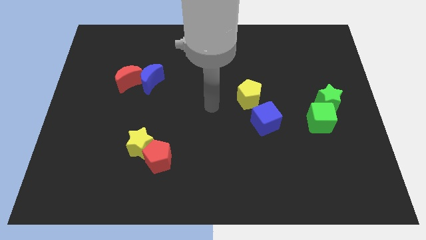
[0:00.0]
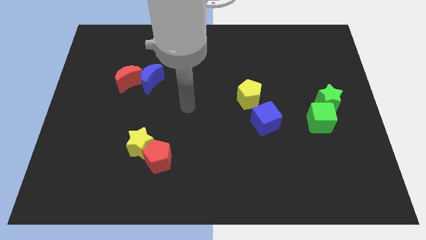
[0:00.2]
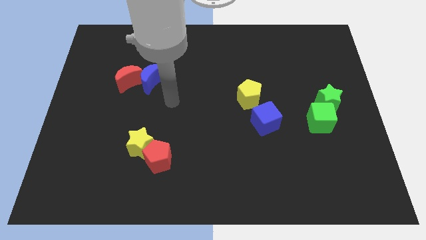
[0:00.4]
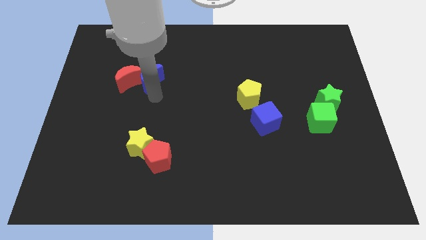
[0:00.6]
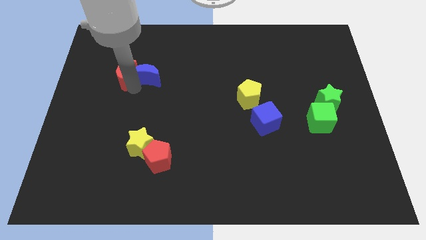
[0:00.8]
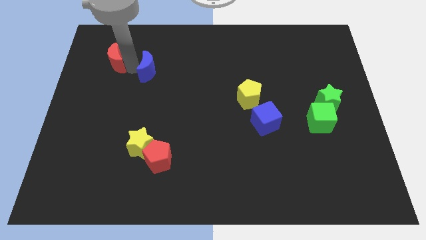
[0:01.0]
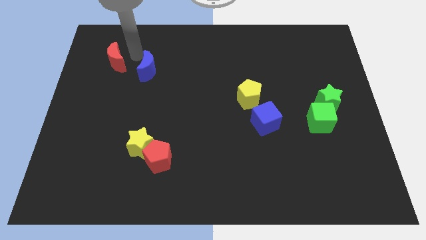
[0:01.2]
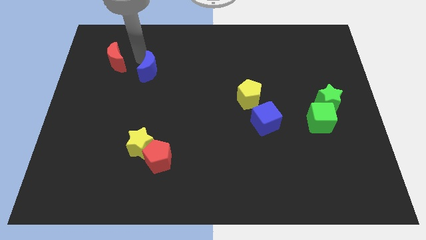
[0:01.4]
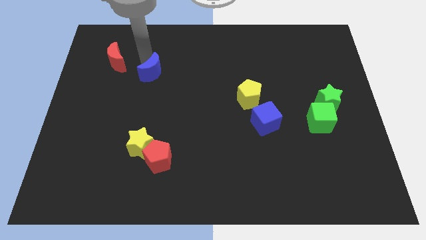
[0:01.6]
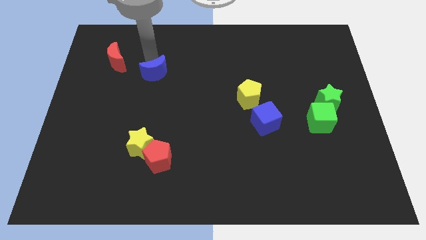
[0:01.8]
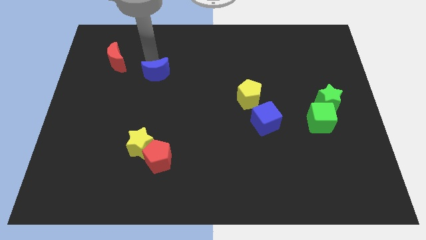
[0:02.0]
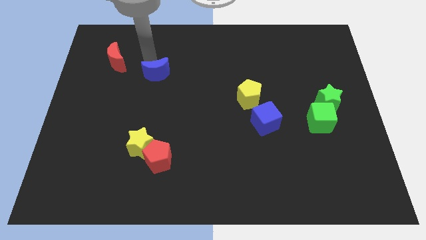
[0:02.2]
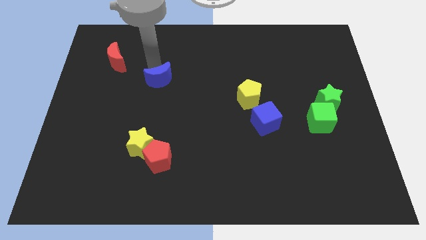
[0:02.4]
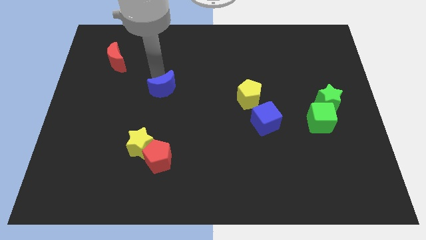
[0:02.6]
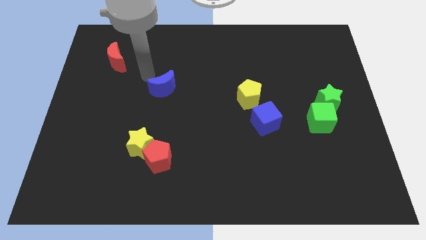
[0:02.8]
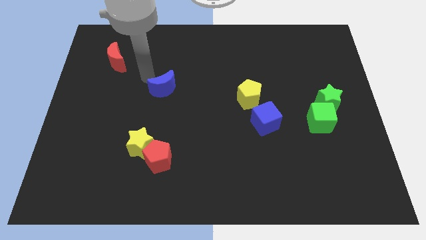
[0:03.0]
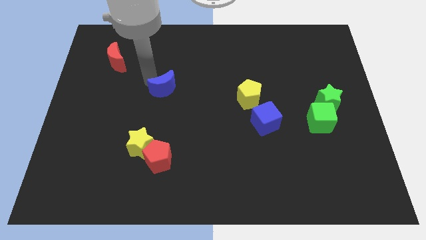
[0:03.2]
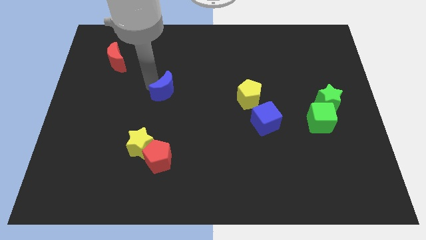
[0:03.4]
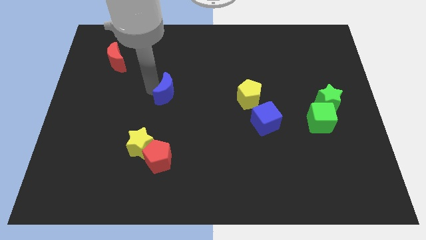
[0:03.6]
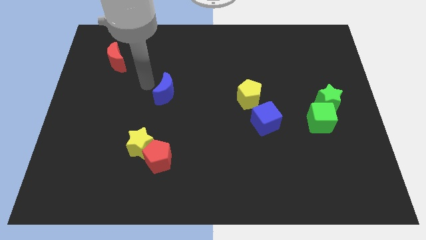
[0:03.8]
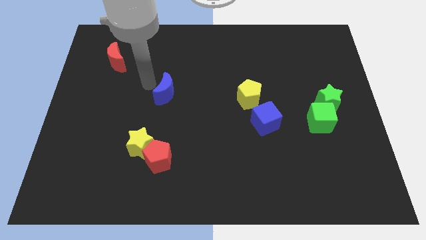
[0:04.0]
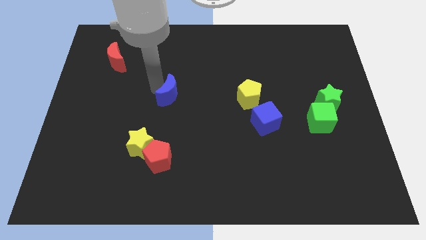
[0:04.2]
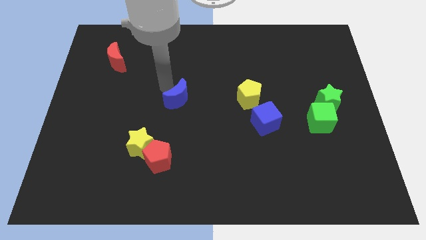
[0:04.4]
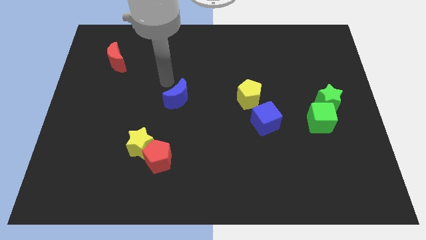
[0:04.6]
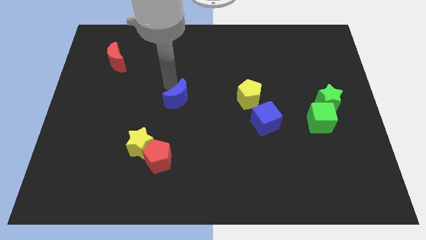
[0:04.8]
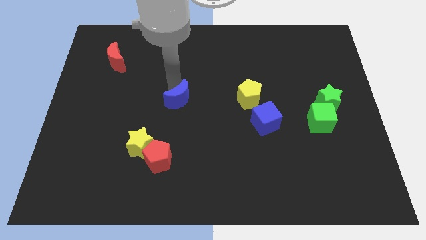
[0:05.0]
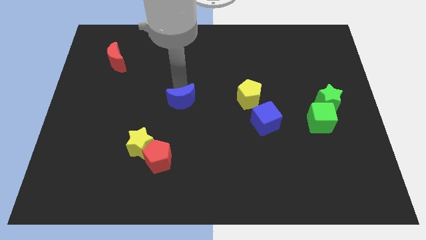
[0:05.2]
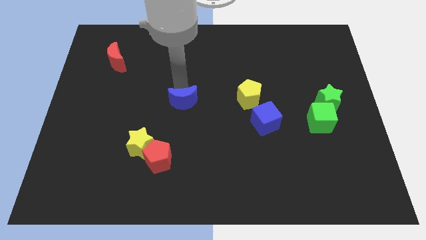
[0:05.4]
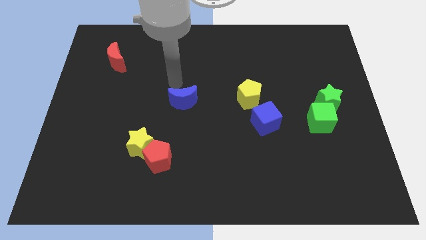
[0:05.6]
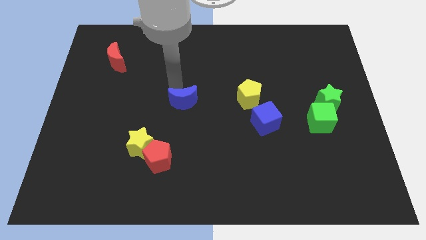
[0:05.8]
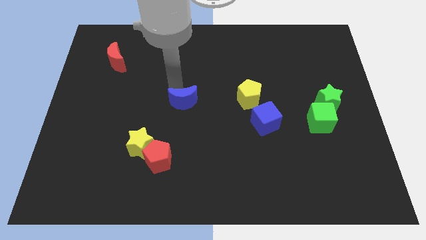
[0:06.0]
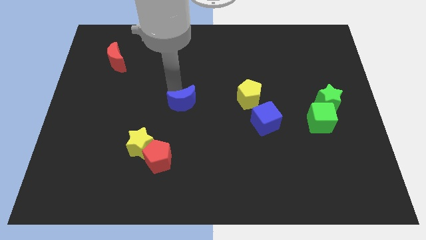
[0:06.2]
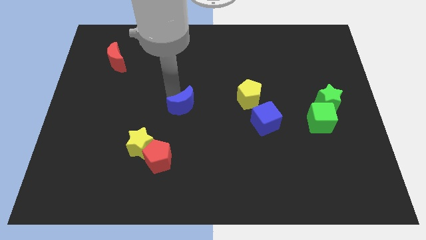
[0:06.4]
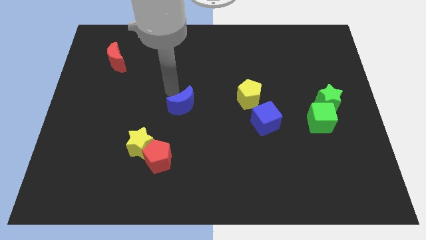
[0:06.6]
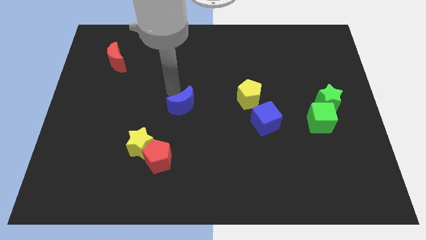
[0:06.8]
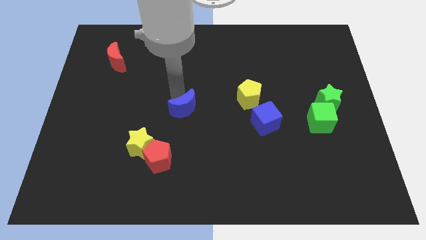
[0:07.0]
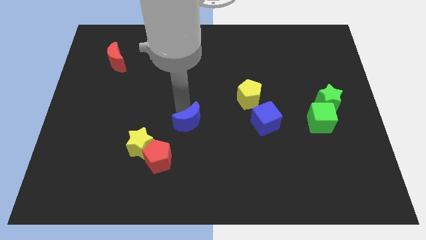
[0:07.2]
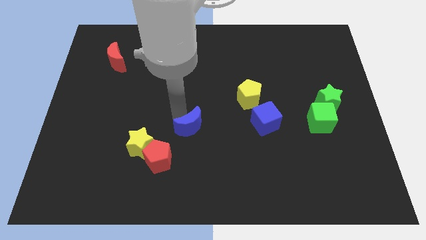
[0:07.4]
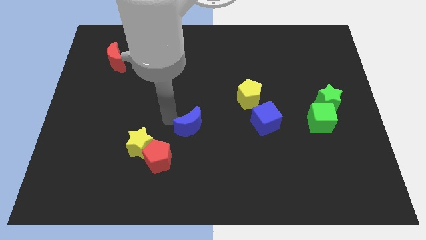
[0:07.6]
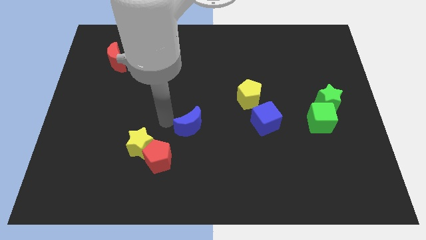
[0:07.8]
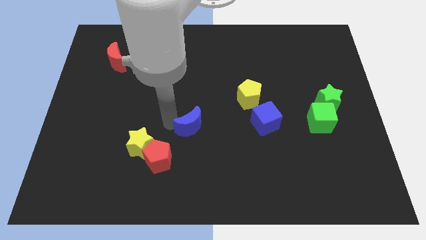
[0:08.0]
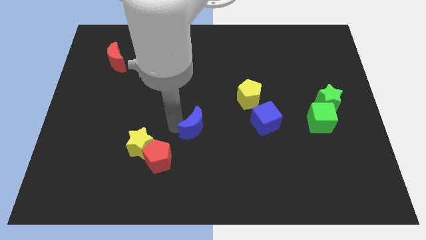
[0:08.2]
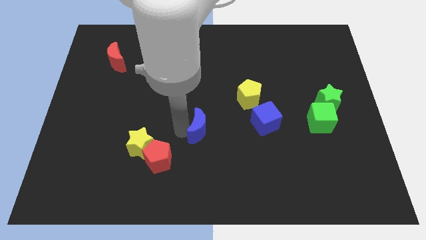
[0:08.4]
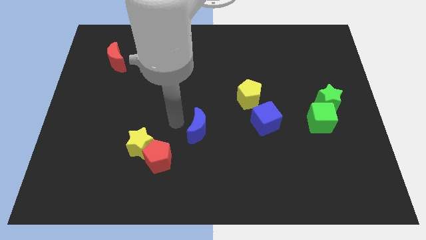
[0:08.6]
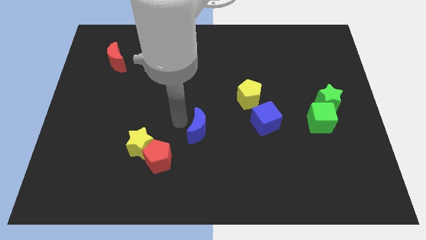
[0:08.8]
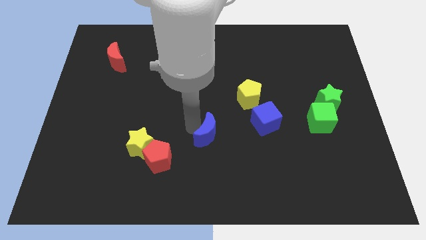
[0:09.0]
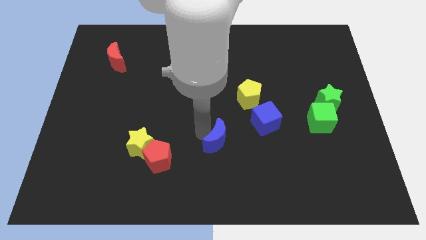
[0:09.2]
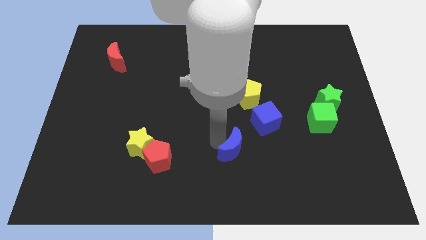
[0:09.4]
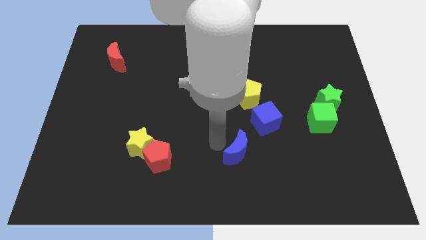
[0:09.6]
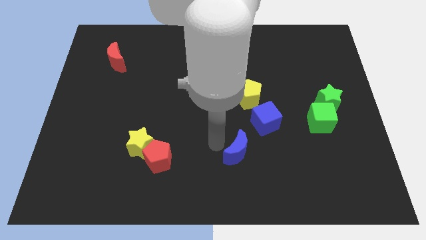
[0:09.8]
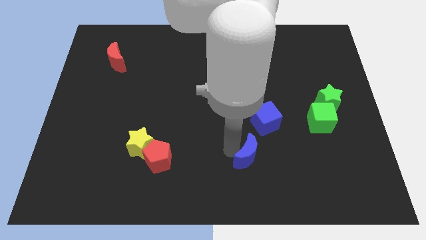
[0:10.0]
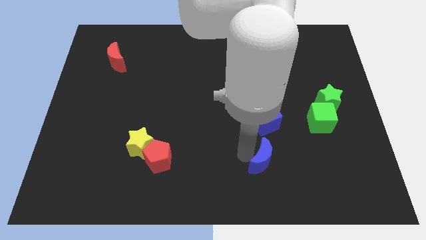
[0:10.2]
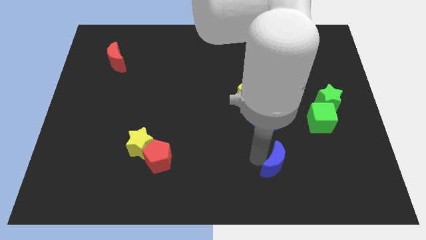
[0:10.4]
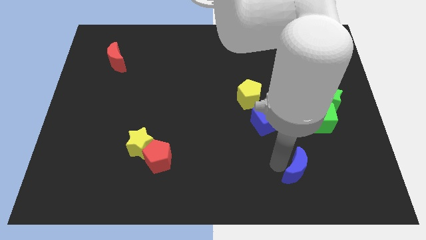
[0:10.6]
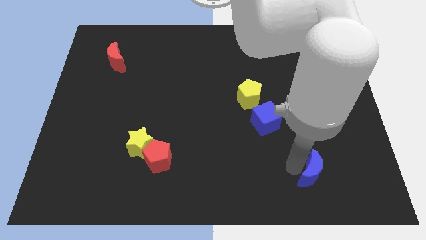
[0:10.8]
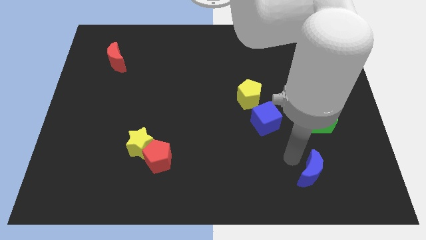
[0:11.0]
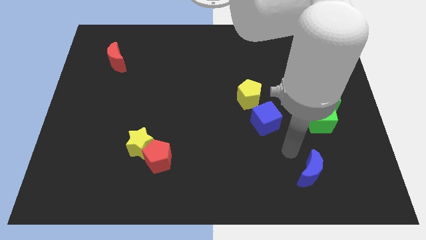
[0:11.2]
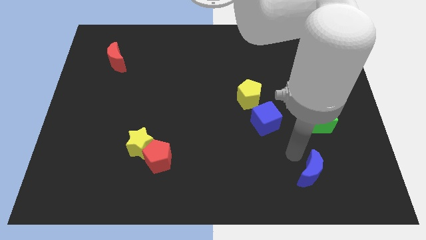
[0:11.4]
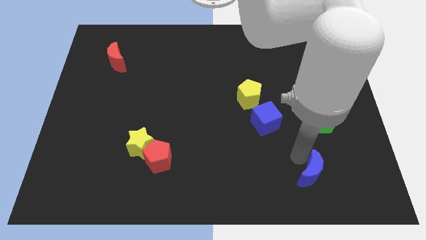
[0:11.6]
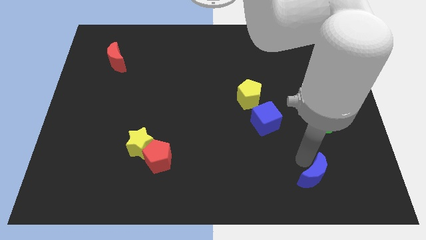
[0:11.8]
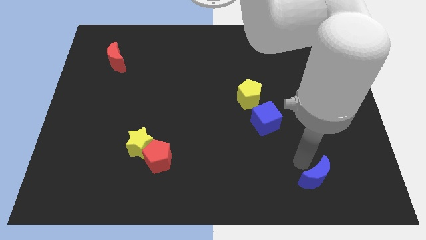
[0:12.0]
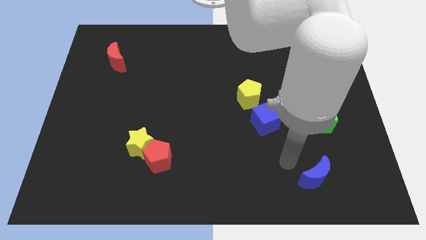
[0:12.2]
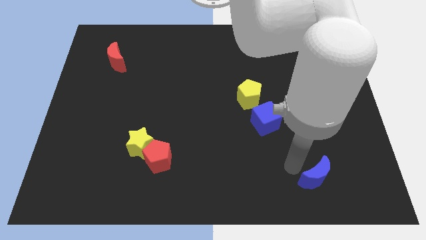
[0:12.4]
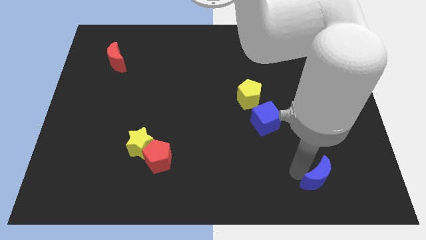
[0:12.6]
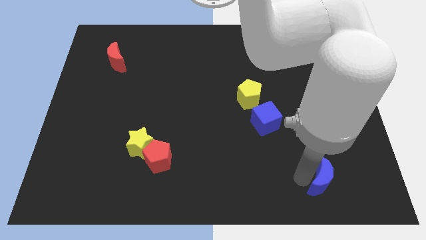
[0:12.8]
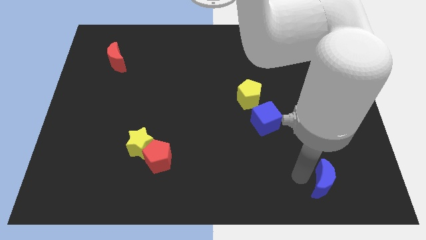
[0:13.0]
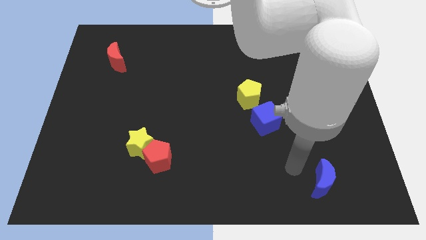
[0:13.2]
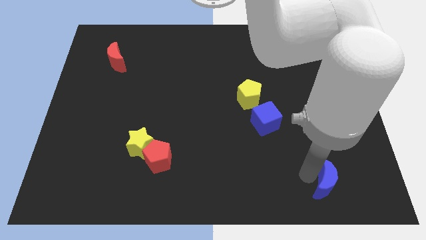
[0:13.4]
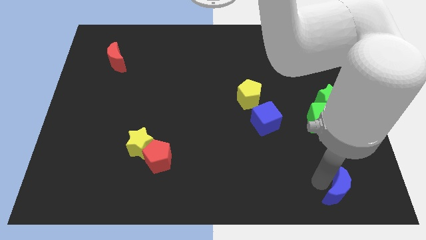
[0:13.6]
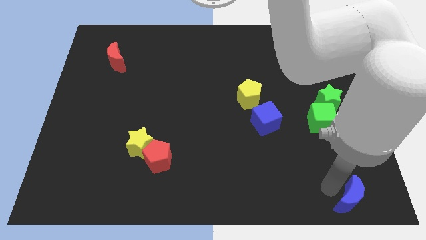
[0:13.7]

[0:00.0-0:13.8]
move the blue moon to the bottom right

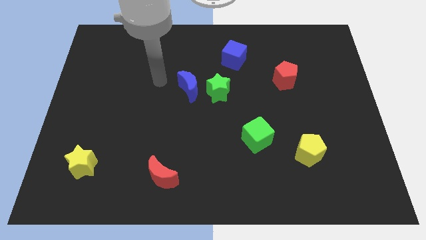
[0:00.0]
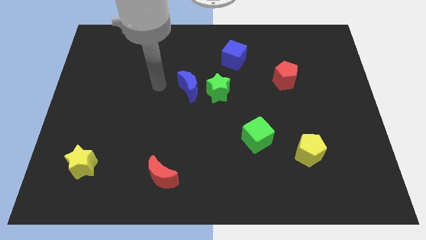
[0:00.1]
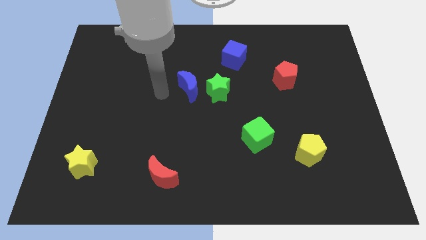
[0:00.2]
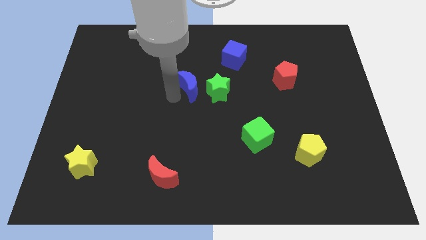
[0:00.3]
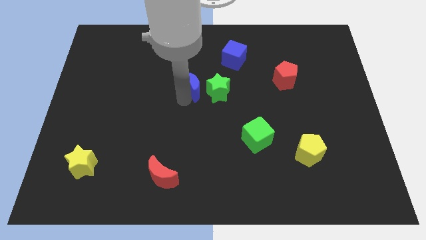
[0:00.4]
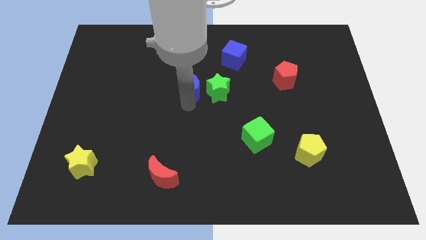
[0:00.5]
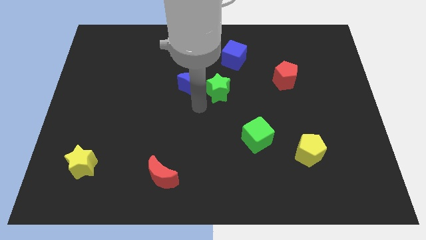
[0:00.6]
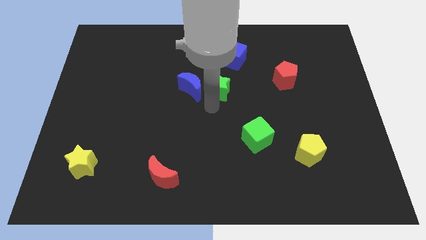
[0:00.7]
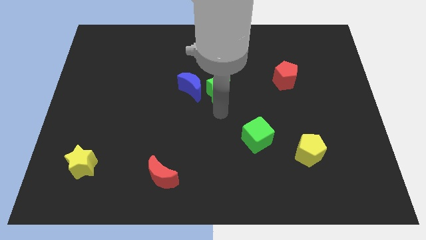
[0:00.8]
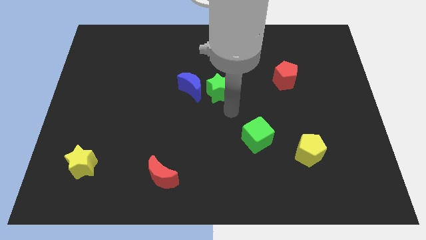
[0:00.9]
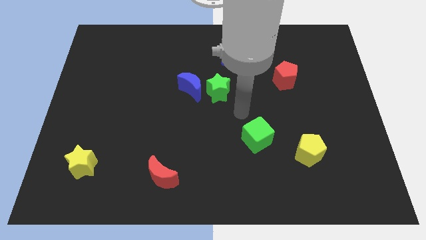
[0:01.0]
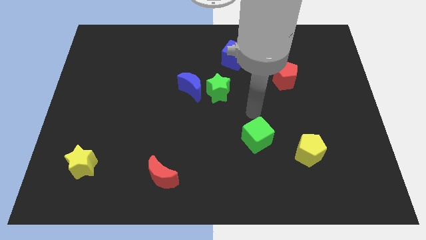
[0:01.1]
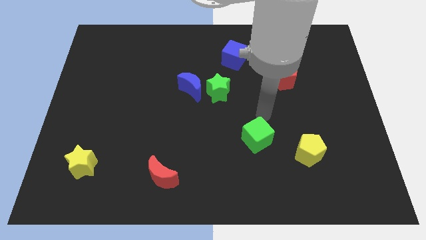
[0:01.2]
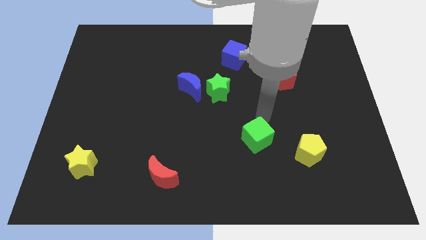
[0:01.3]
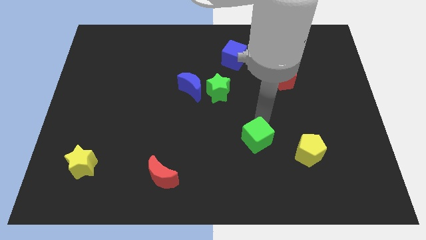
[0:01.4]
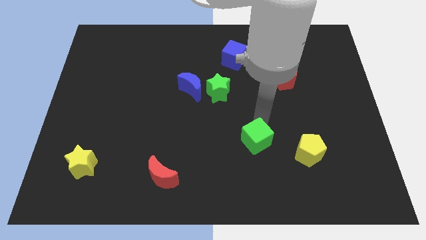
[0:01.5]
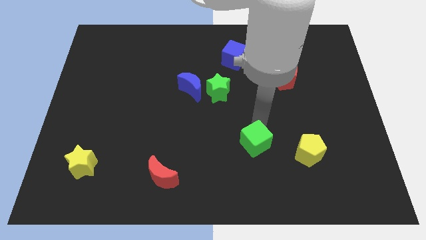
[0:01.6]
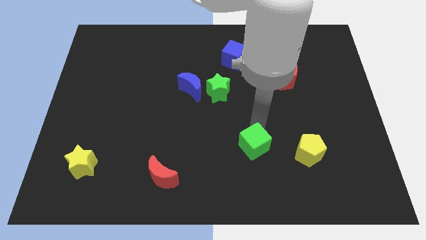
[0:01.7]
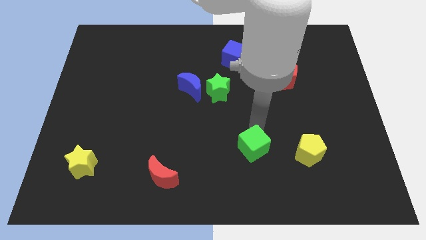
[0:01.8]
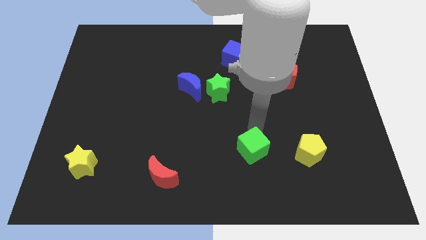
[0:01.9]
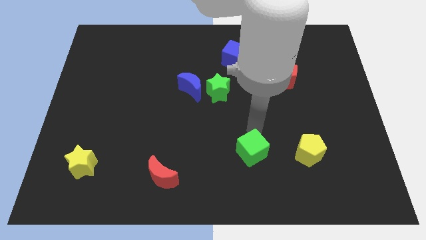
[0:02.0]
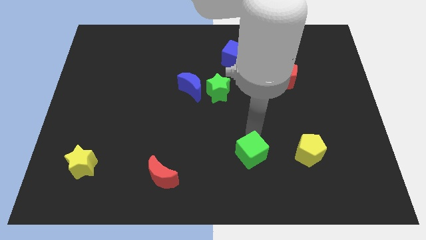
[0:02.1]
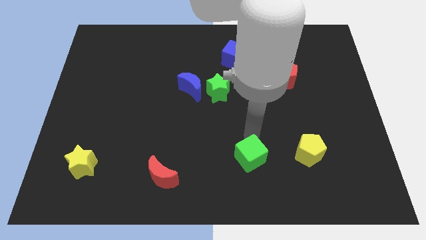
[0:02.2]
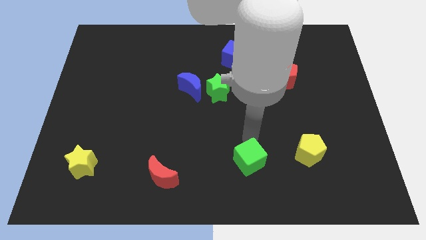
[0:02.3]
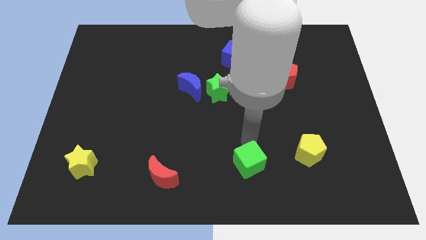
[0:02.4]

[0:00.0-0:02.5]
push the green cube to the bottom side
